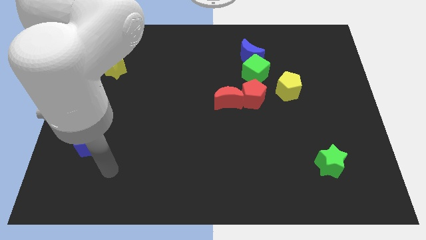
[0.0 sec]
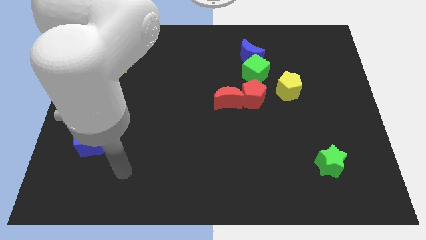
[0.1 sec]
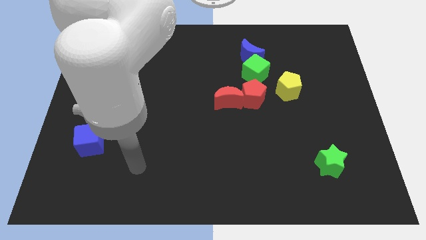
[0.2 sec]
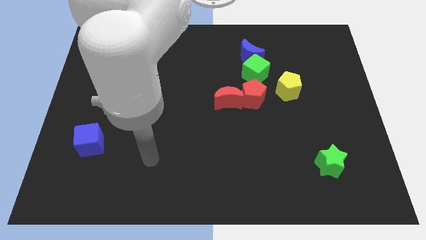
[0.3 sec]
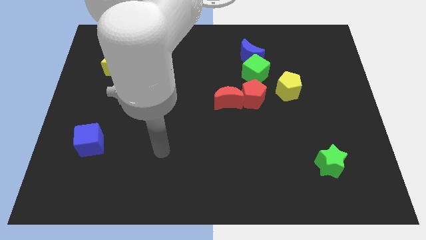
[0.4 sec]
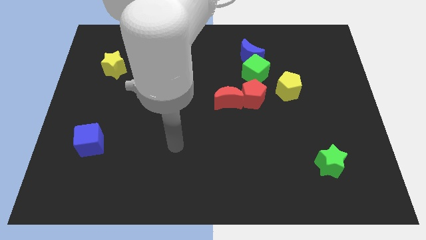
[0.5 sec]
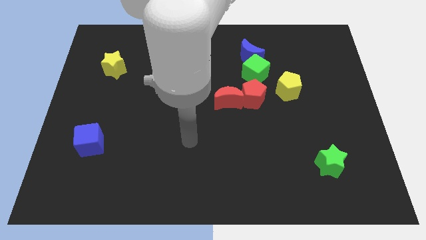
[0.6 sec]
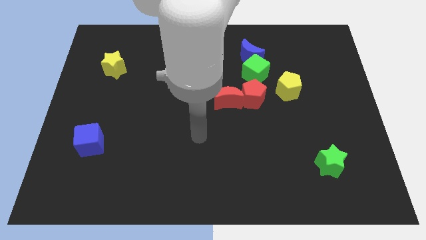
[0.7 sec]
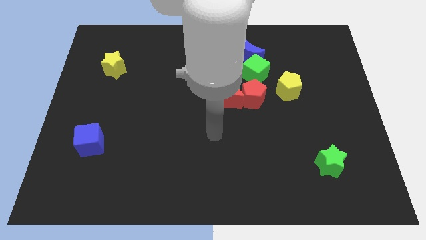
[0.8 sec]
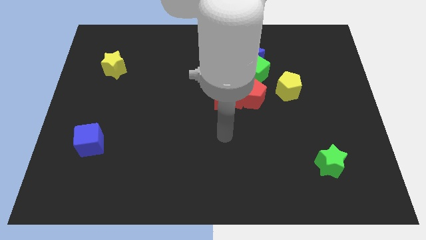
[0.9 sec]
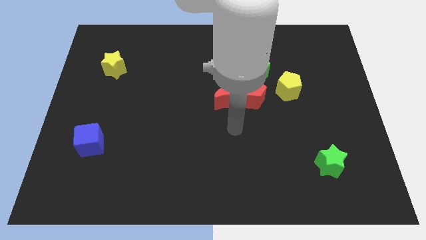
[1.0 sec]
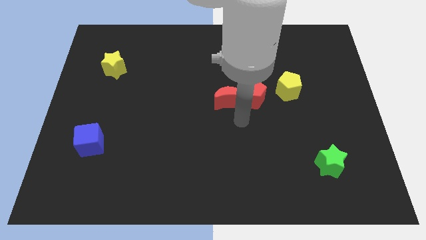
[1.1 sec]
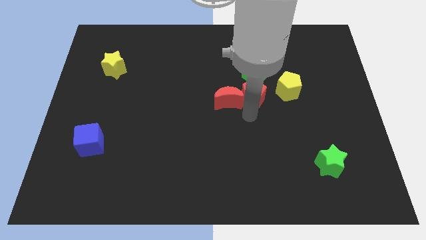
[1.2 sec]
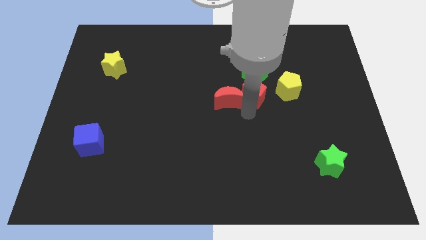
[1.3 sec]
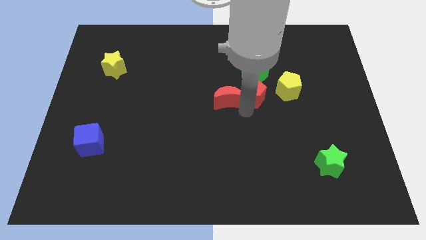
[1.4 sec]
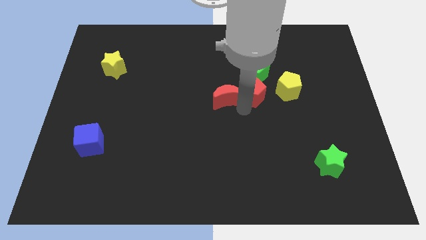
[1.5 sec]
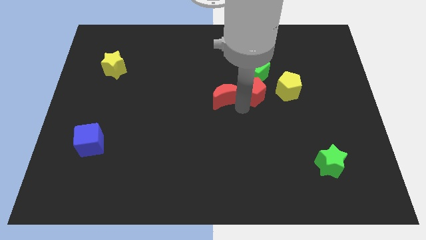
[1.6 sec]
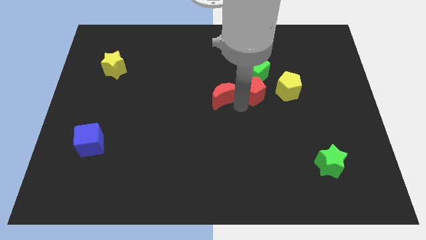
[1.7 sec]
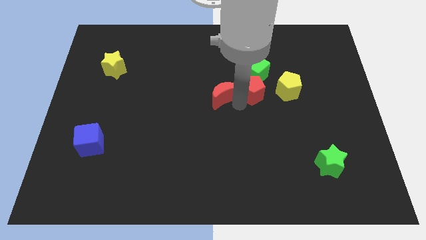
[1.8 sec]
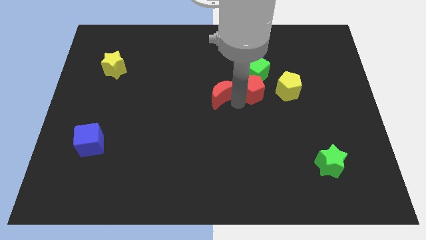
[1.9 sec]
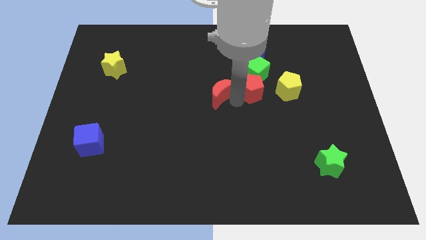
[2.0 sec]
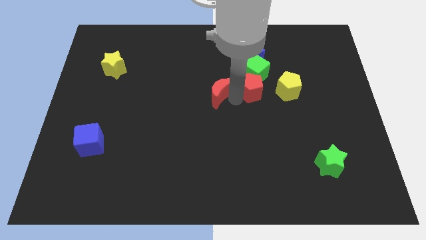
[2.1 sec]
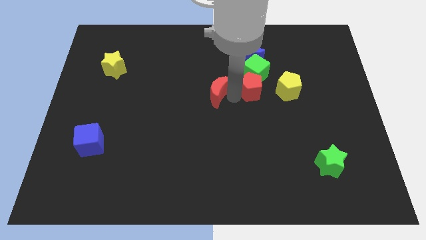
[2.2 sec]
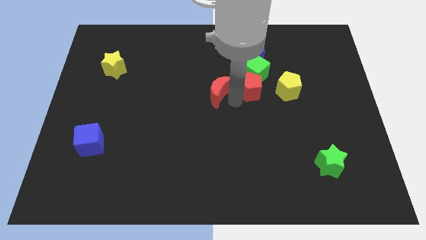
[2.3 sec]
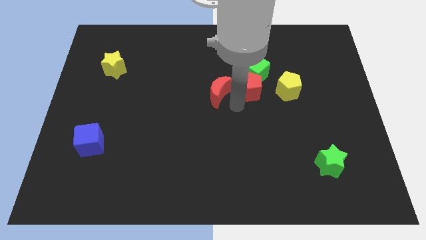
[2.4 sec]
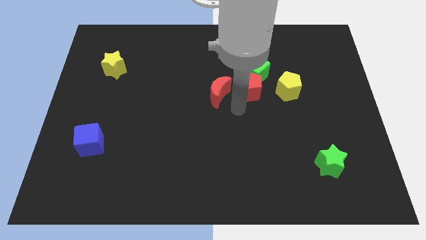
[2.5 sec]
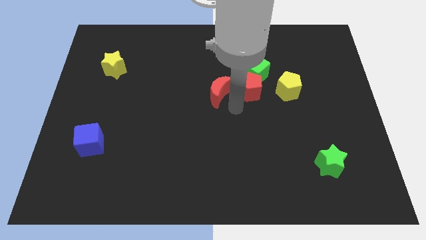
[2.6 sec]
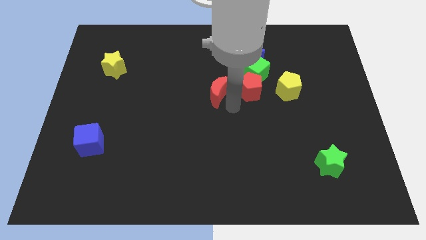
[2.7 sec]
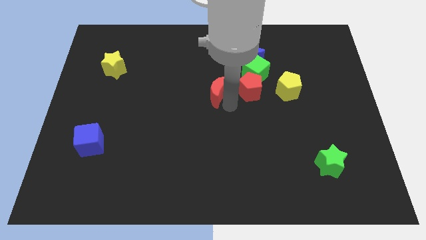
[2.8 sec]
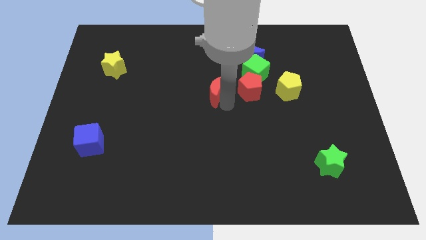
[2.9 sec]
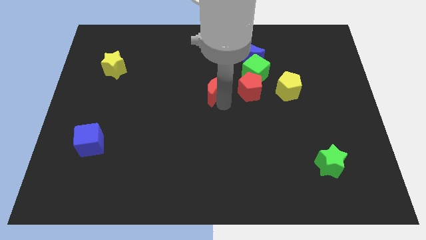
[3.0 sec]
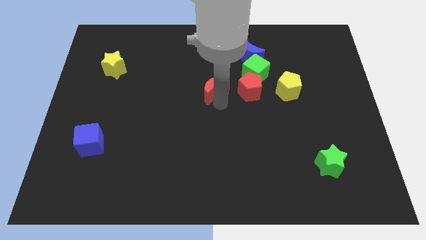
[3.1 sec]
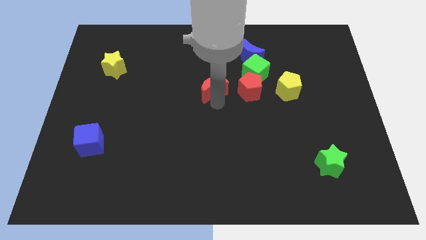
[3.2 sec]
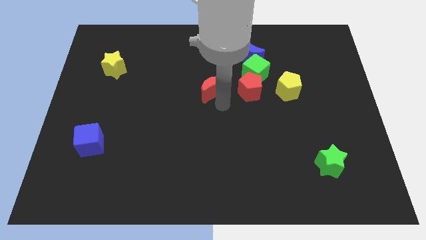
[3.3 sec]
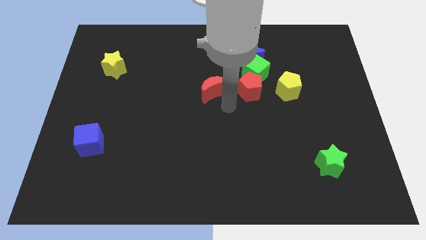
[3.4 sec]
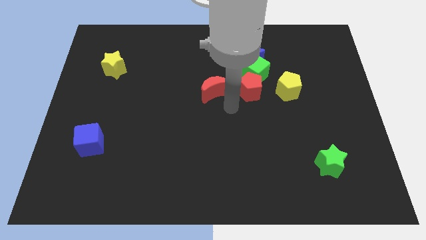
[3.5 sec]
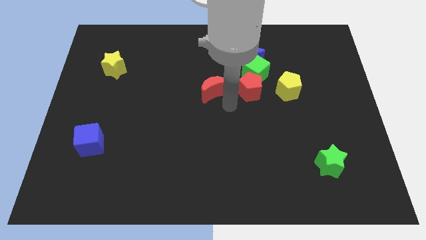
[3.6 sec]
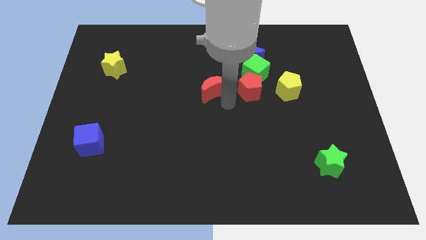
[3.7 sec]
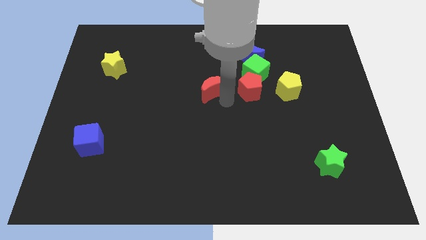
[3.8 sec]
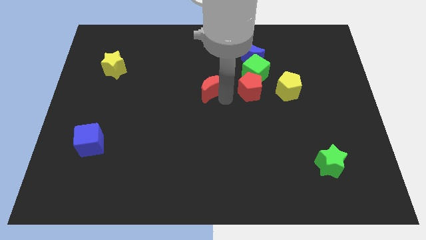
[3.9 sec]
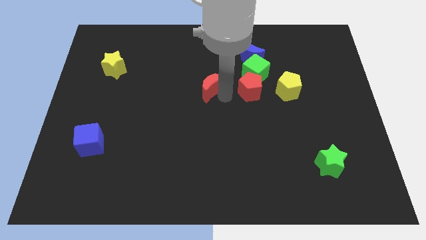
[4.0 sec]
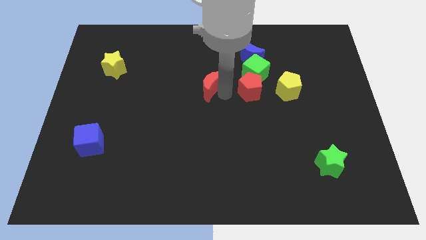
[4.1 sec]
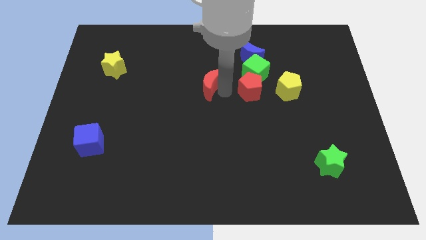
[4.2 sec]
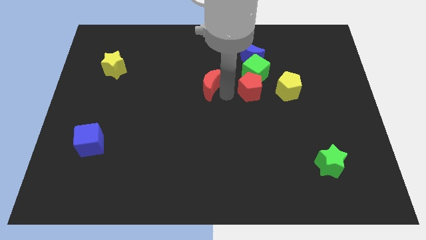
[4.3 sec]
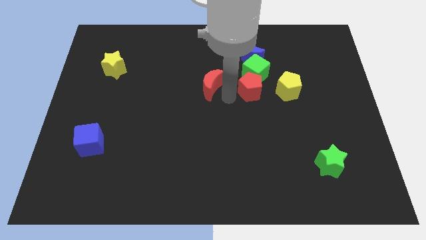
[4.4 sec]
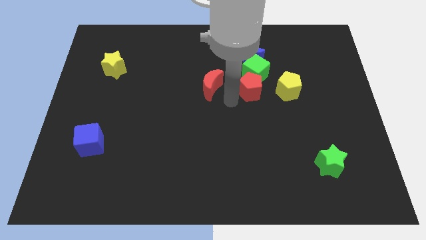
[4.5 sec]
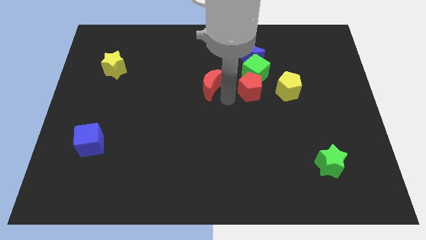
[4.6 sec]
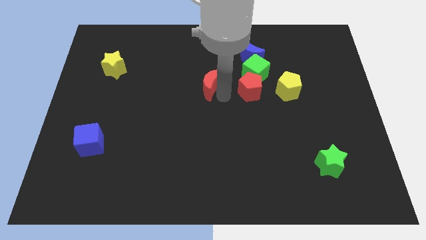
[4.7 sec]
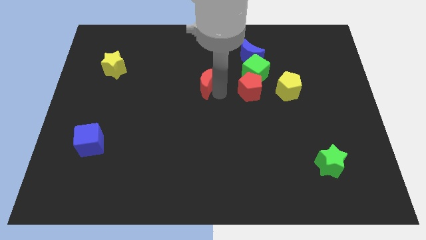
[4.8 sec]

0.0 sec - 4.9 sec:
slide the red moon a bit upwards and then left

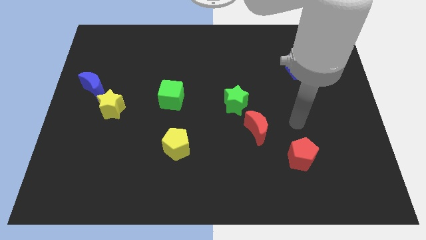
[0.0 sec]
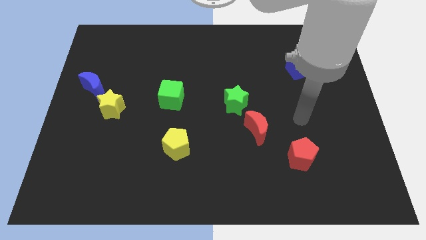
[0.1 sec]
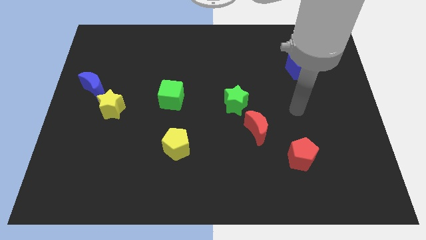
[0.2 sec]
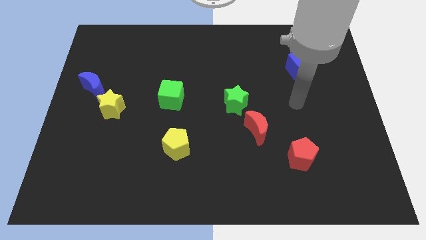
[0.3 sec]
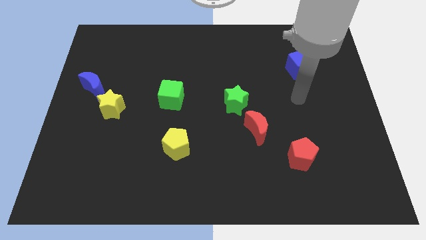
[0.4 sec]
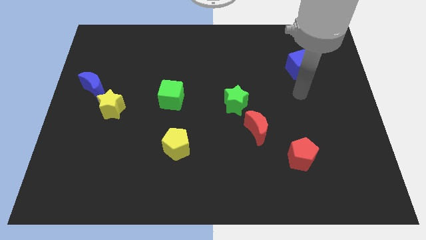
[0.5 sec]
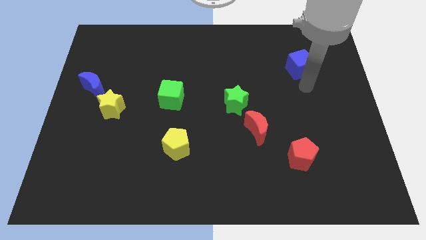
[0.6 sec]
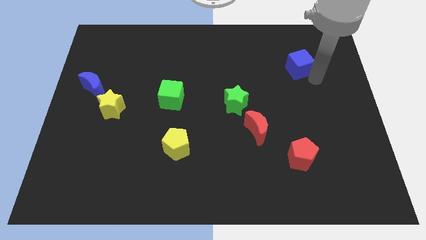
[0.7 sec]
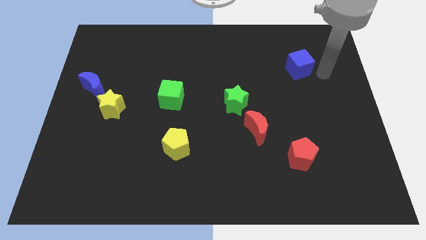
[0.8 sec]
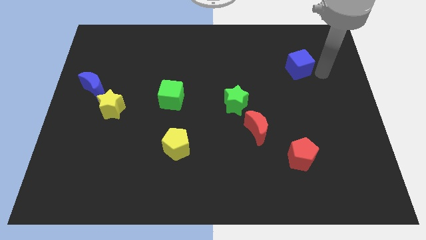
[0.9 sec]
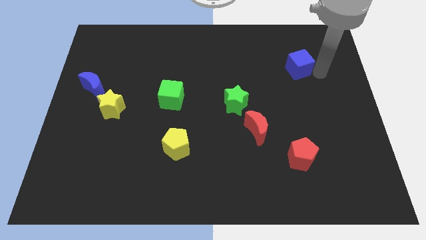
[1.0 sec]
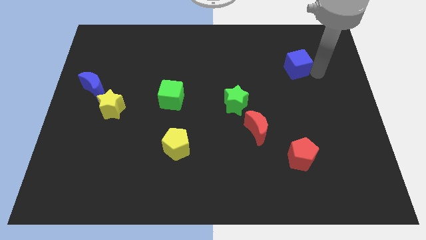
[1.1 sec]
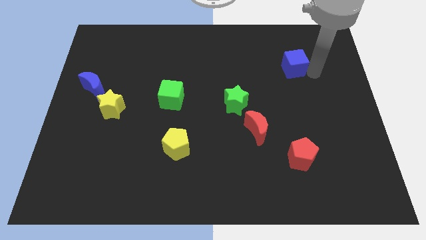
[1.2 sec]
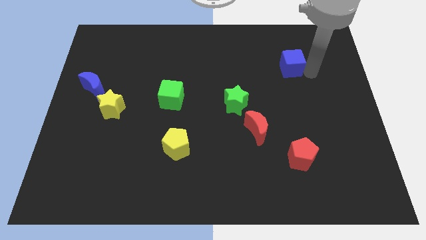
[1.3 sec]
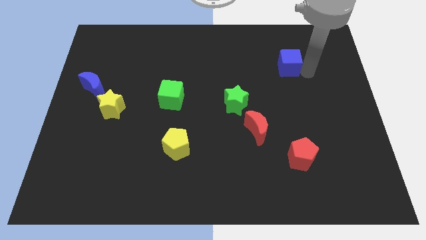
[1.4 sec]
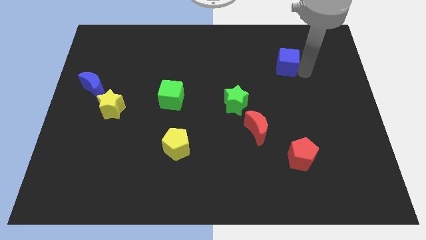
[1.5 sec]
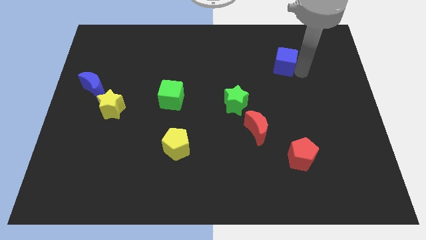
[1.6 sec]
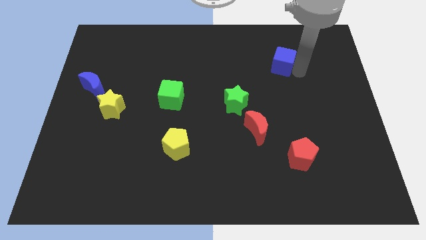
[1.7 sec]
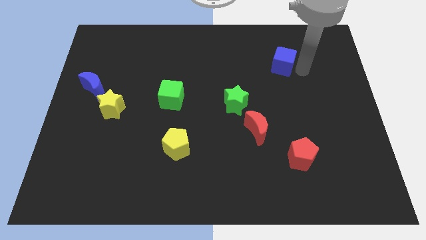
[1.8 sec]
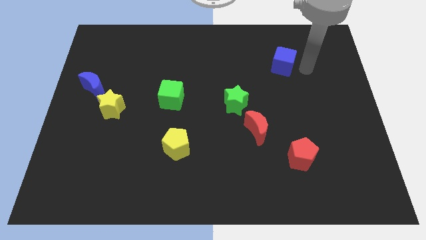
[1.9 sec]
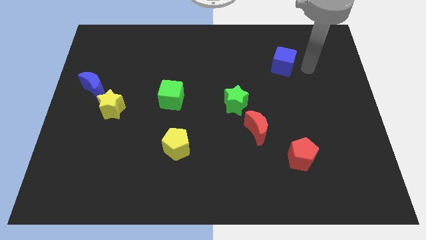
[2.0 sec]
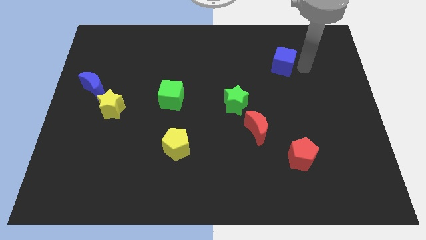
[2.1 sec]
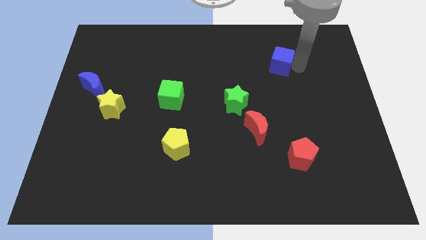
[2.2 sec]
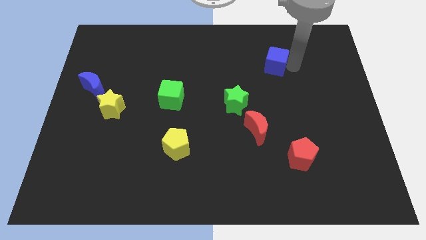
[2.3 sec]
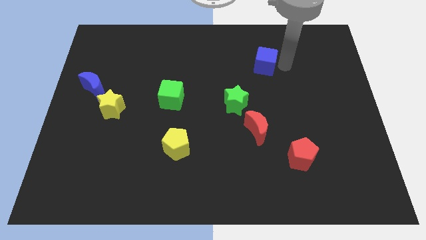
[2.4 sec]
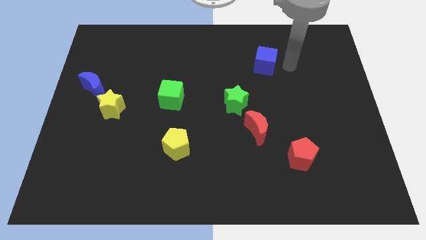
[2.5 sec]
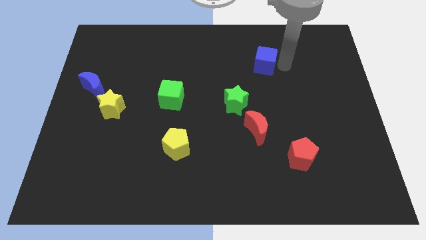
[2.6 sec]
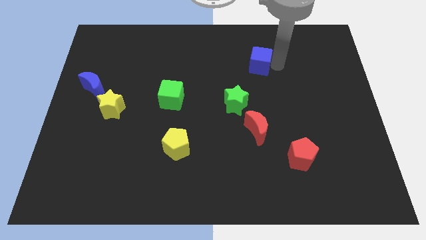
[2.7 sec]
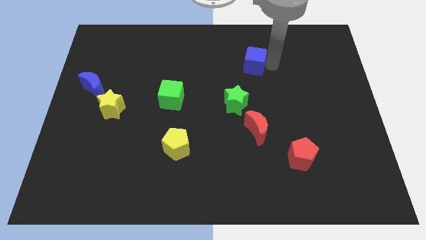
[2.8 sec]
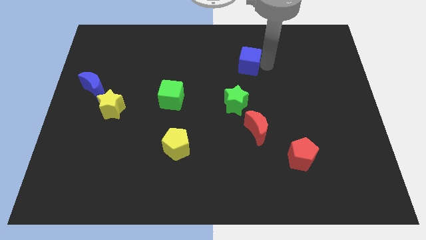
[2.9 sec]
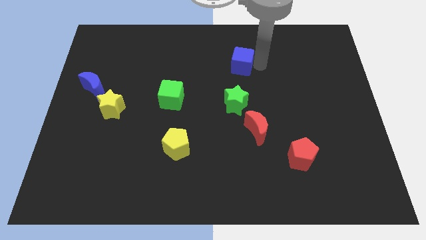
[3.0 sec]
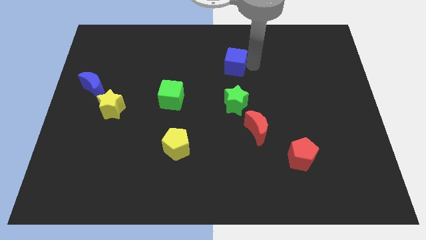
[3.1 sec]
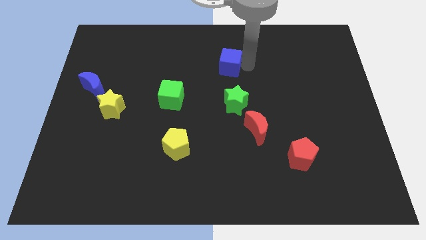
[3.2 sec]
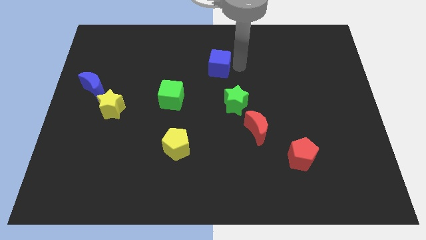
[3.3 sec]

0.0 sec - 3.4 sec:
slide the blue cube to the left
